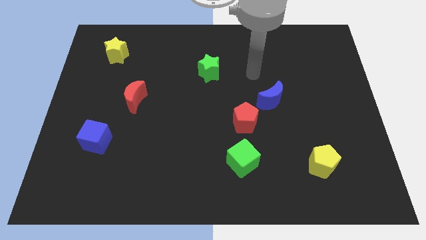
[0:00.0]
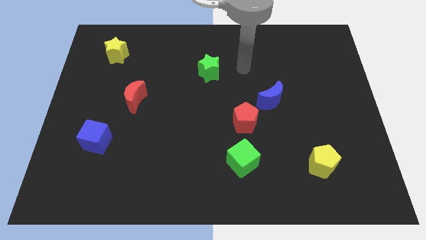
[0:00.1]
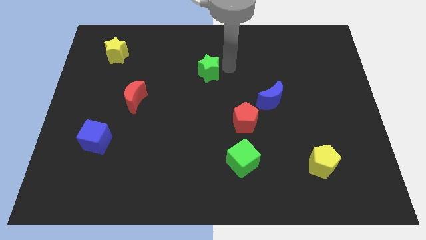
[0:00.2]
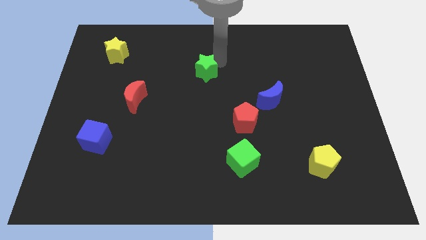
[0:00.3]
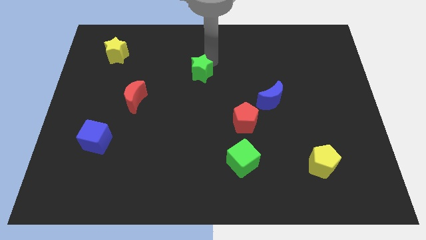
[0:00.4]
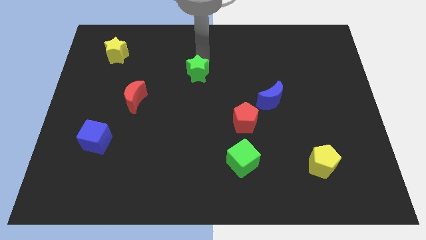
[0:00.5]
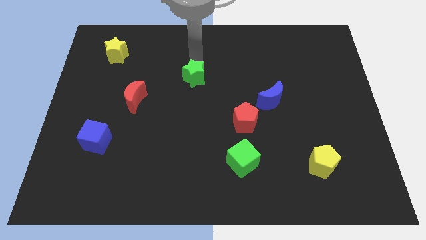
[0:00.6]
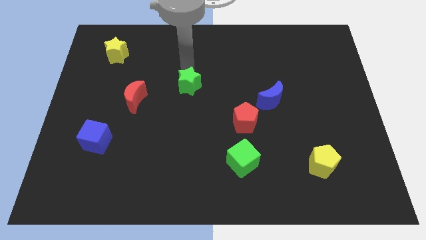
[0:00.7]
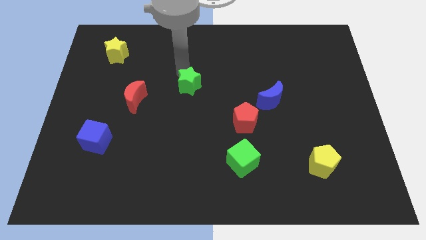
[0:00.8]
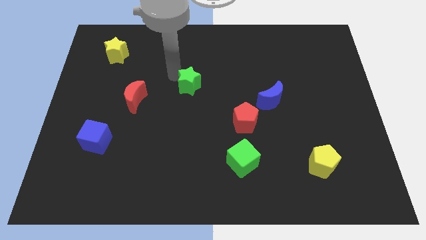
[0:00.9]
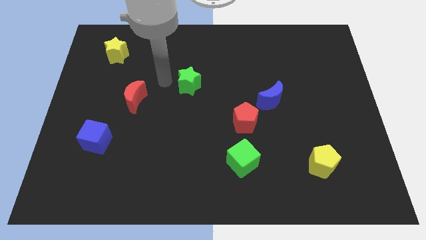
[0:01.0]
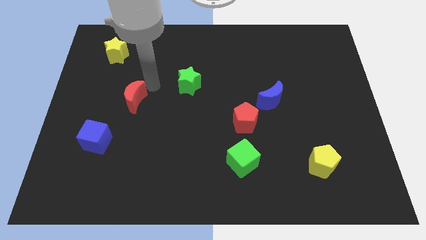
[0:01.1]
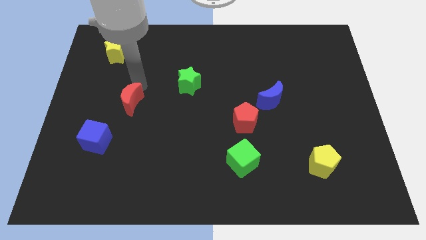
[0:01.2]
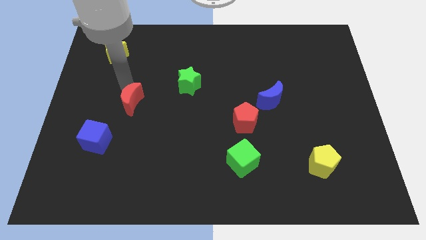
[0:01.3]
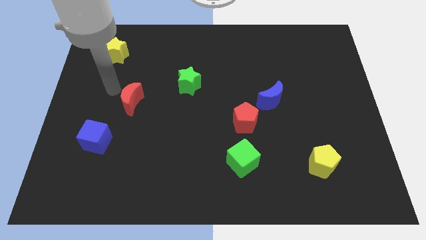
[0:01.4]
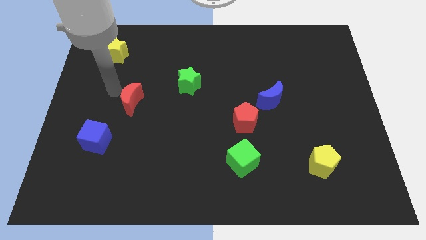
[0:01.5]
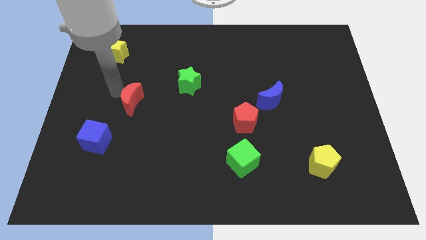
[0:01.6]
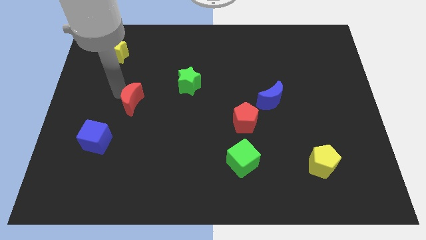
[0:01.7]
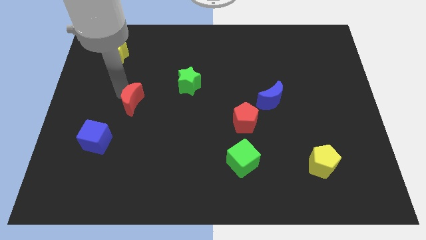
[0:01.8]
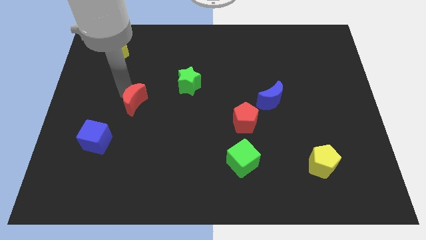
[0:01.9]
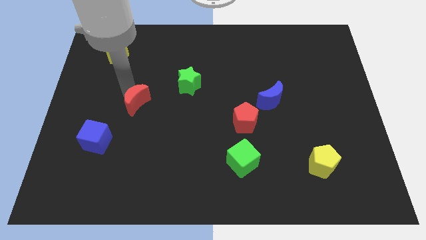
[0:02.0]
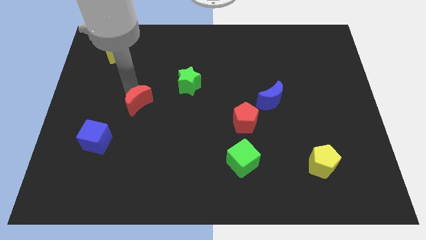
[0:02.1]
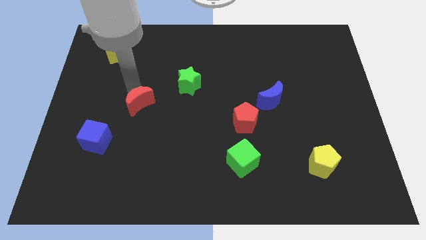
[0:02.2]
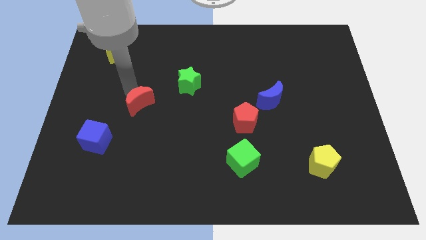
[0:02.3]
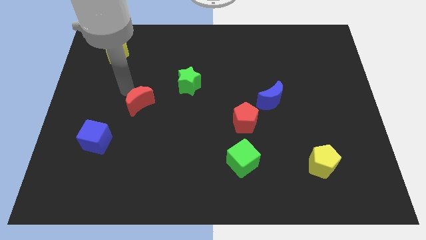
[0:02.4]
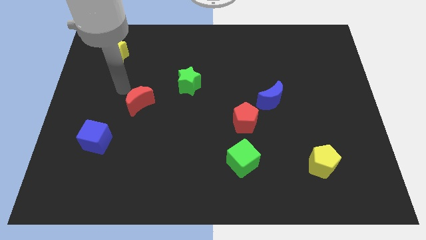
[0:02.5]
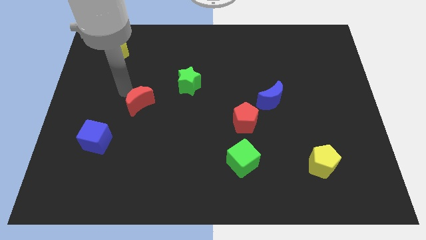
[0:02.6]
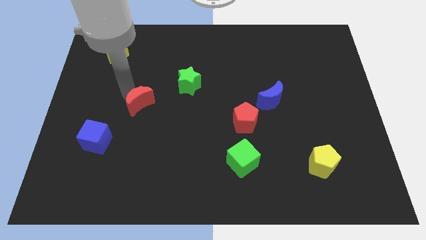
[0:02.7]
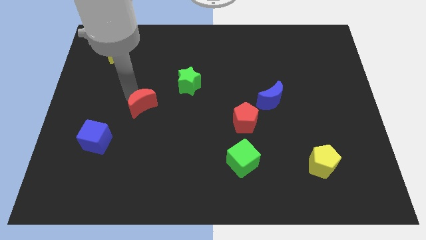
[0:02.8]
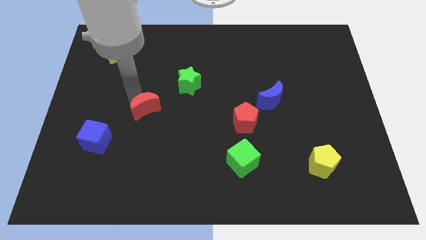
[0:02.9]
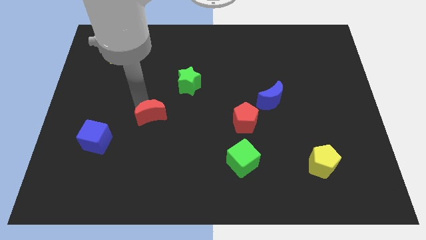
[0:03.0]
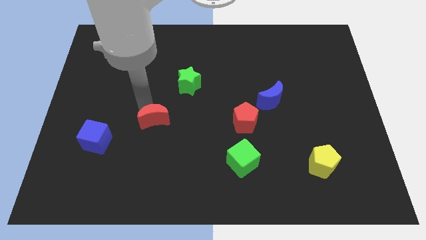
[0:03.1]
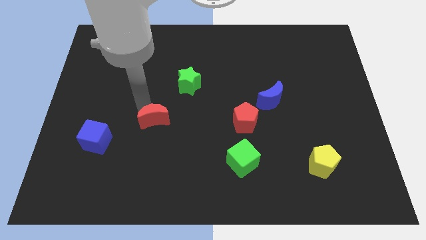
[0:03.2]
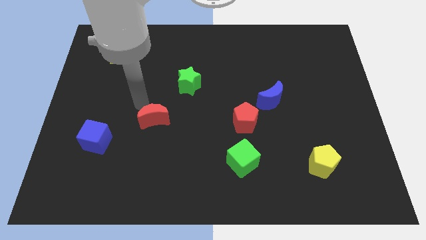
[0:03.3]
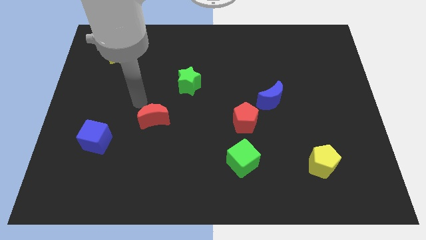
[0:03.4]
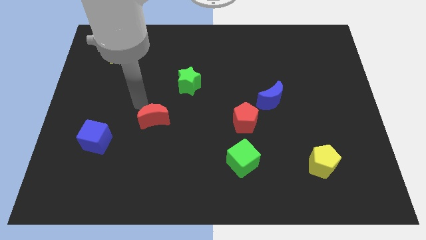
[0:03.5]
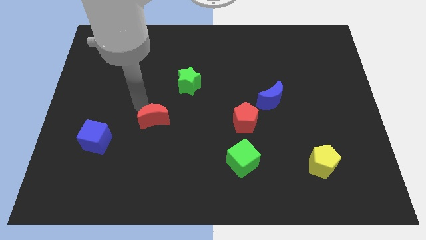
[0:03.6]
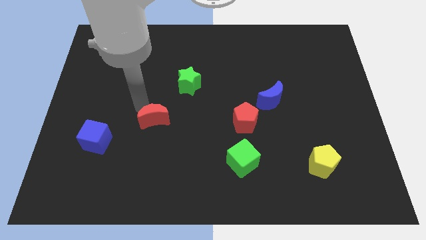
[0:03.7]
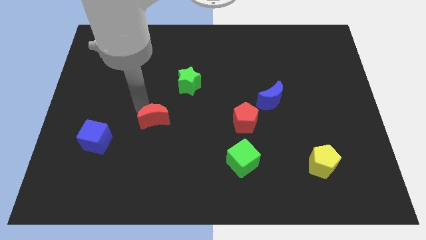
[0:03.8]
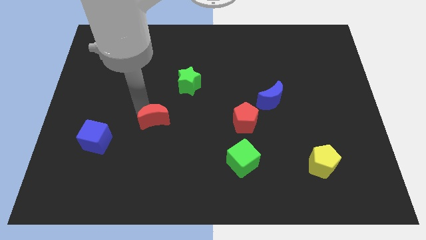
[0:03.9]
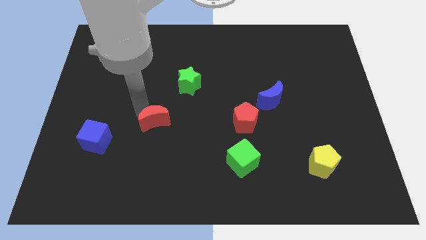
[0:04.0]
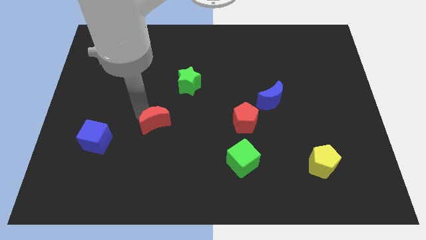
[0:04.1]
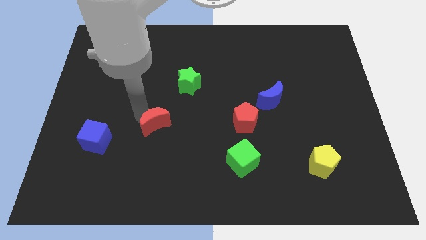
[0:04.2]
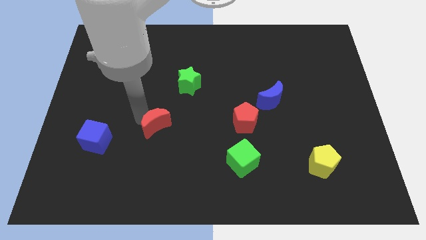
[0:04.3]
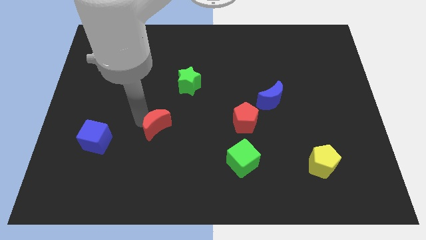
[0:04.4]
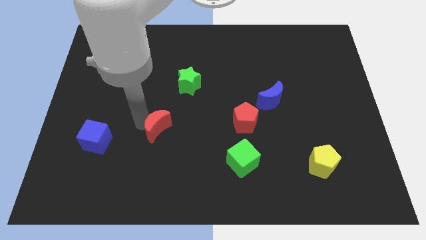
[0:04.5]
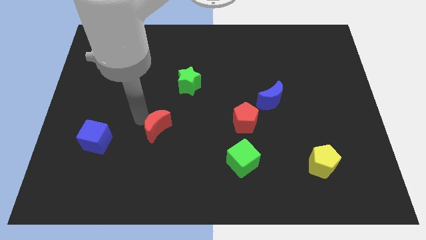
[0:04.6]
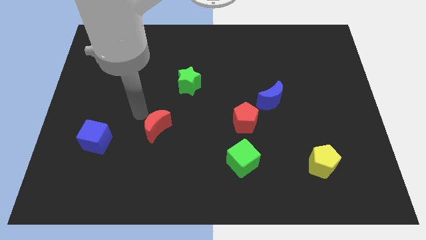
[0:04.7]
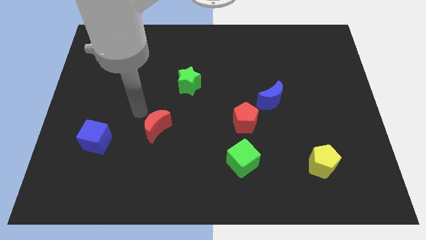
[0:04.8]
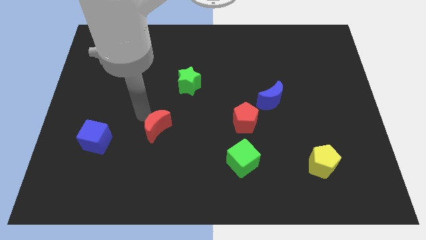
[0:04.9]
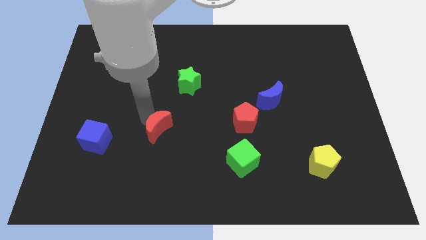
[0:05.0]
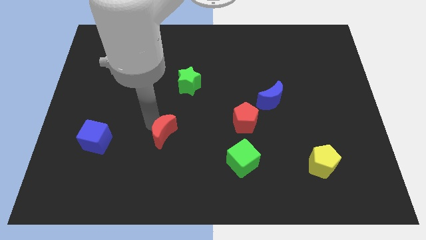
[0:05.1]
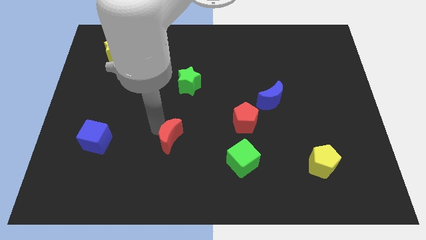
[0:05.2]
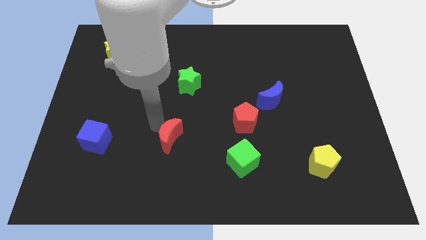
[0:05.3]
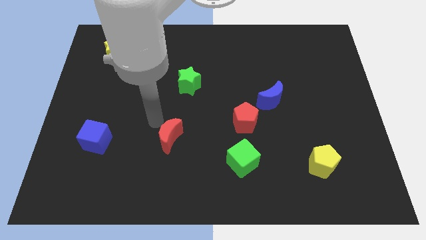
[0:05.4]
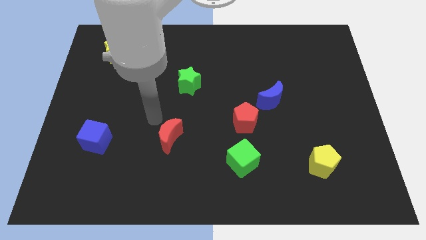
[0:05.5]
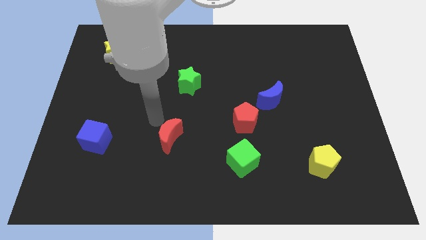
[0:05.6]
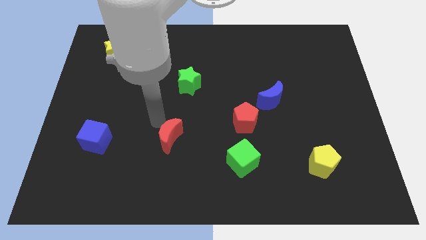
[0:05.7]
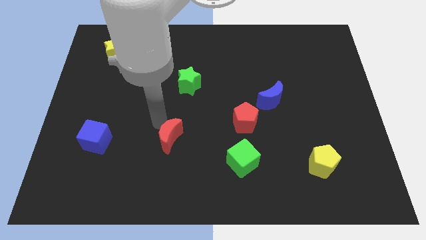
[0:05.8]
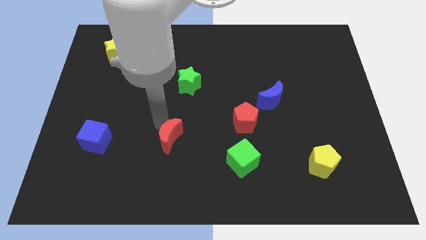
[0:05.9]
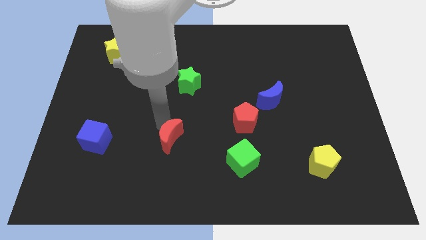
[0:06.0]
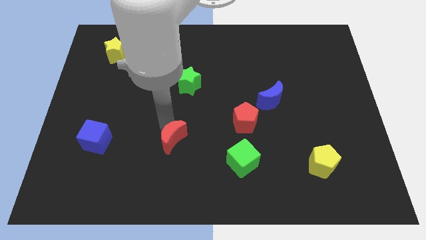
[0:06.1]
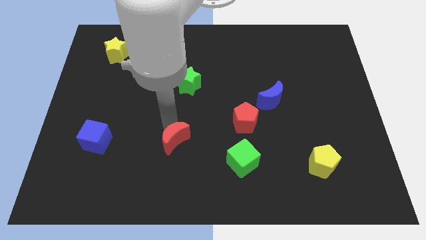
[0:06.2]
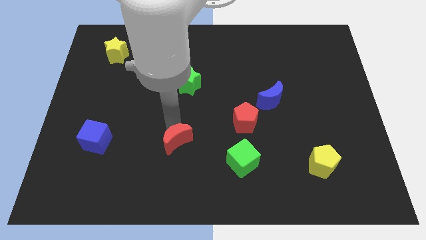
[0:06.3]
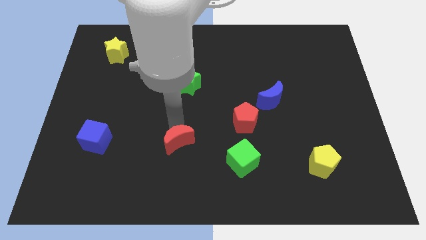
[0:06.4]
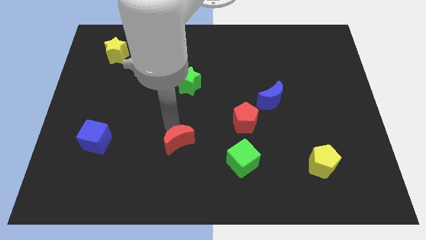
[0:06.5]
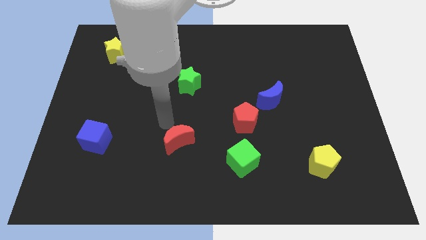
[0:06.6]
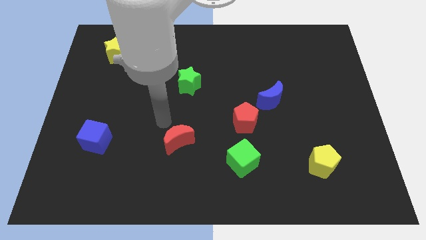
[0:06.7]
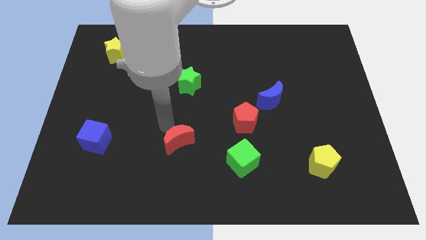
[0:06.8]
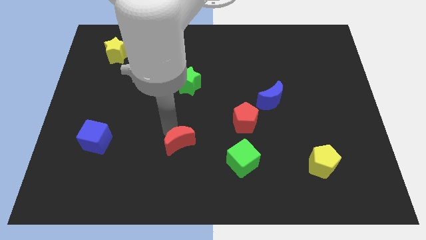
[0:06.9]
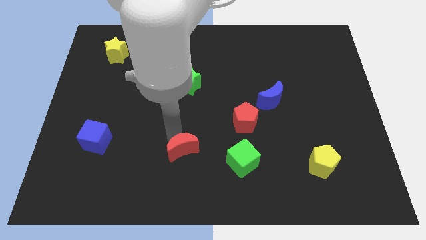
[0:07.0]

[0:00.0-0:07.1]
slide the red moon to the left side of the green cube
